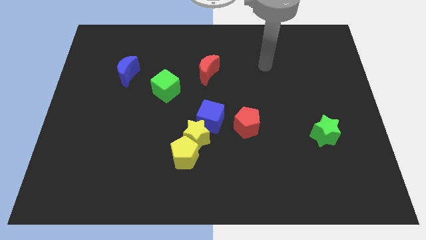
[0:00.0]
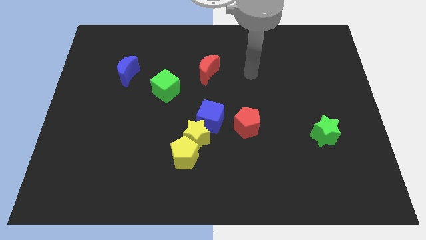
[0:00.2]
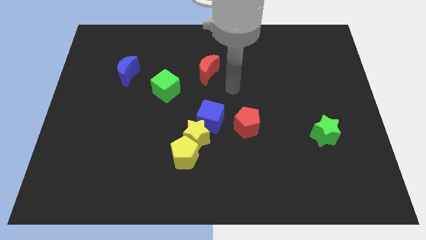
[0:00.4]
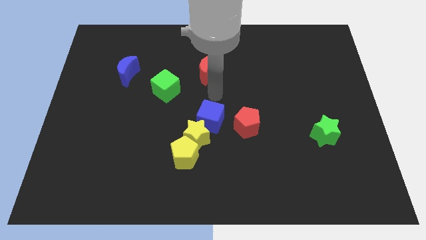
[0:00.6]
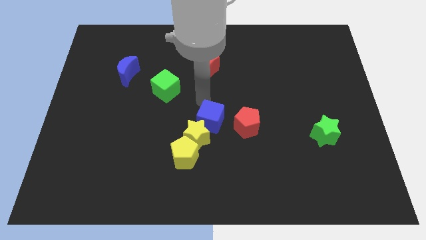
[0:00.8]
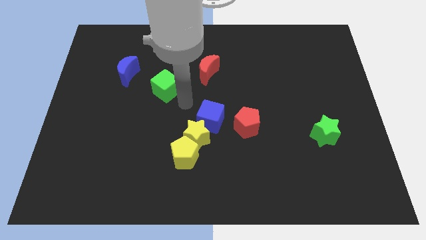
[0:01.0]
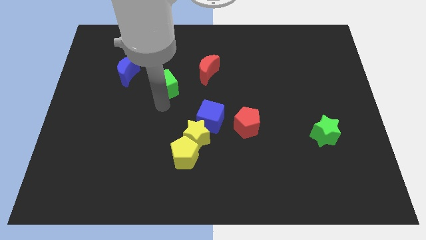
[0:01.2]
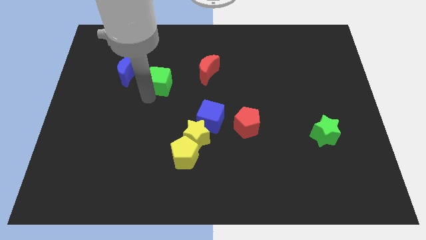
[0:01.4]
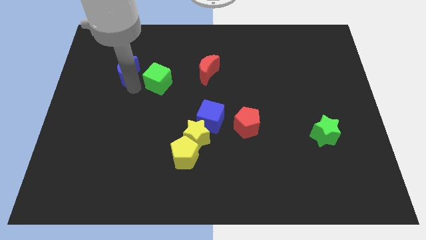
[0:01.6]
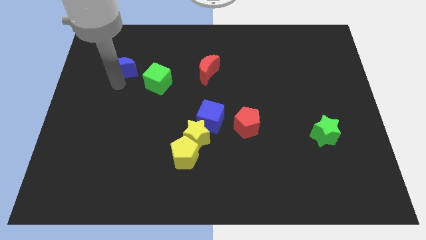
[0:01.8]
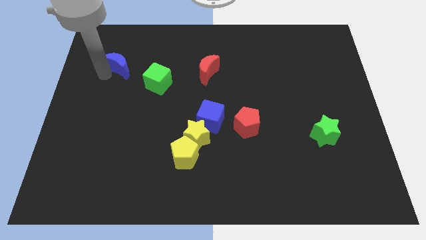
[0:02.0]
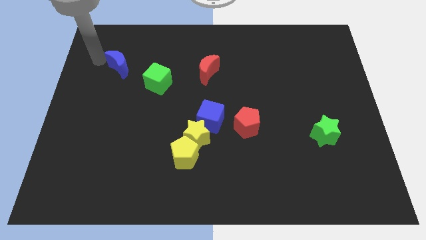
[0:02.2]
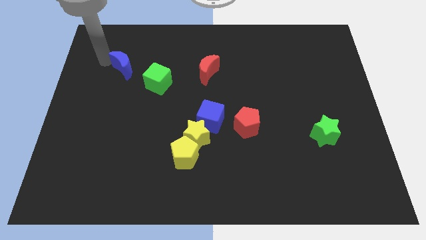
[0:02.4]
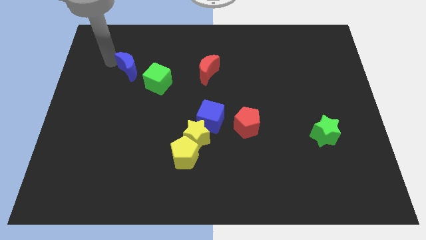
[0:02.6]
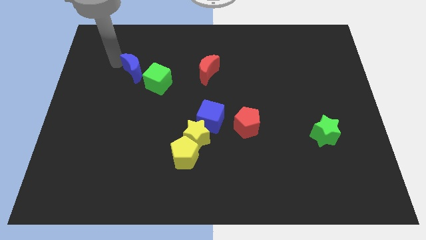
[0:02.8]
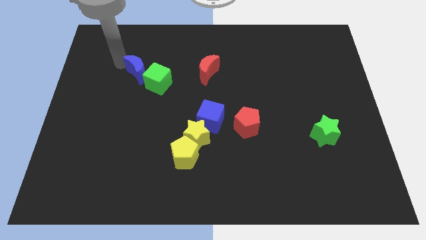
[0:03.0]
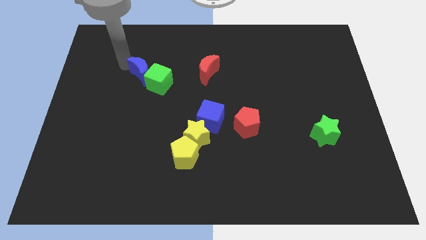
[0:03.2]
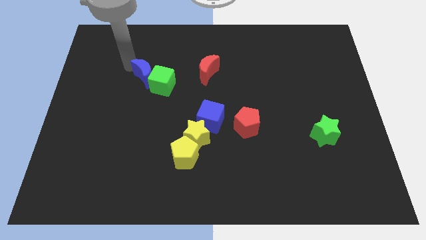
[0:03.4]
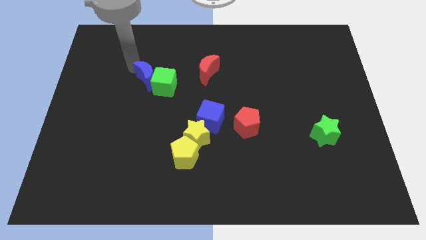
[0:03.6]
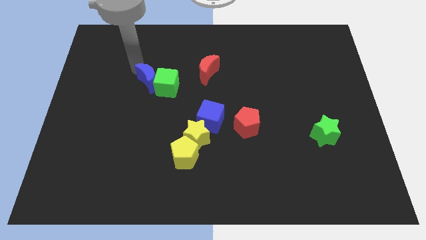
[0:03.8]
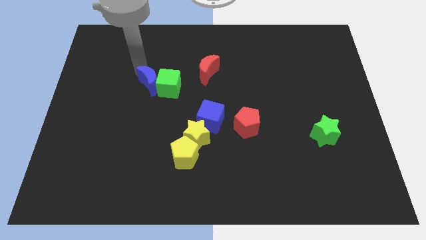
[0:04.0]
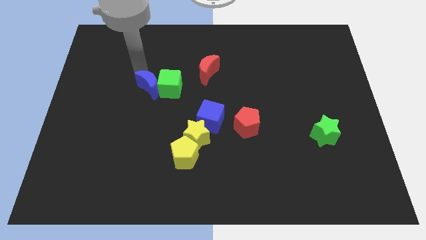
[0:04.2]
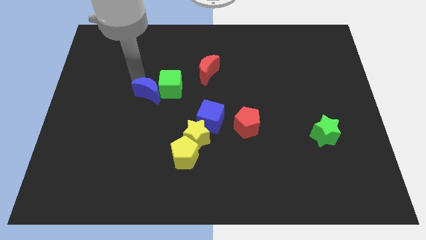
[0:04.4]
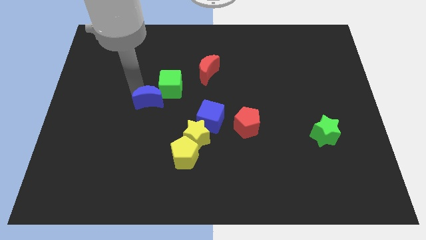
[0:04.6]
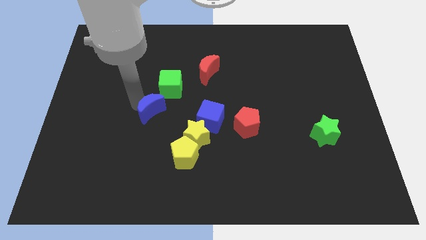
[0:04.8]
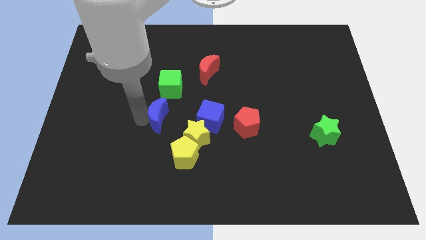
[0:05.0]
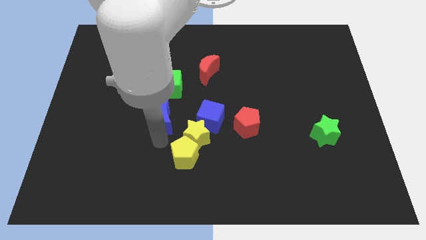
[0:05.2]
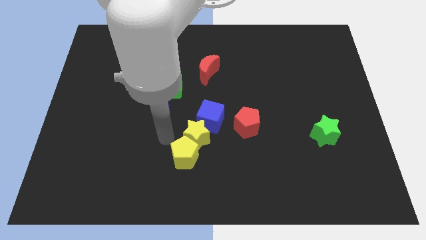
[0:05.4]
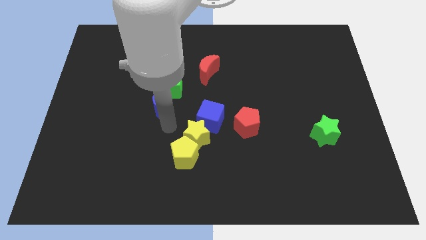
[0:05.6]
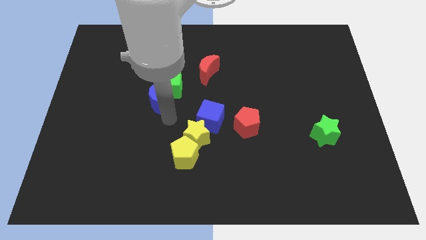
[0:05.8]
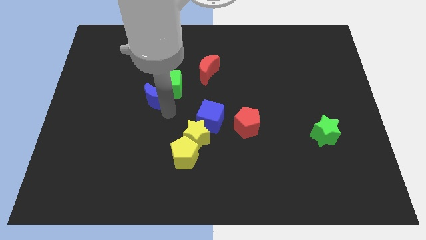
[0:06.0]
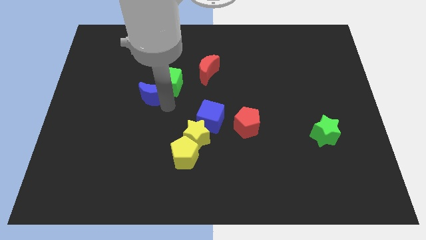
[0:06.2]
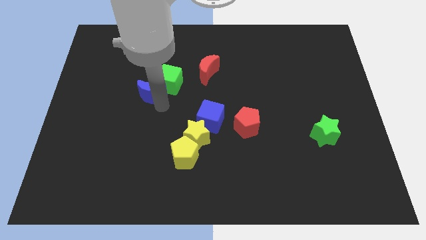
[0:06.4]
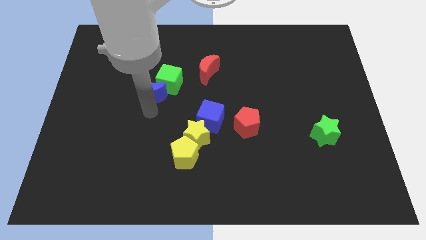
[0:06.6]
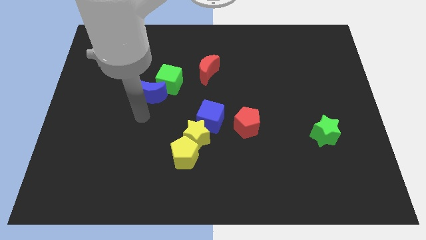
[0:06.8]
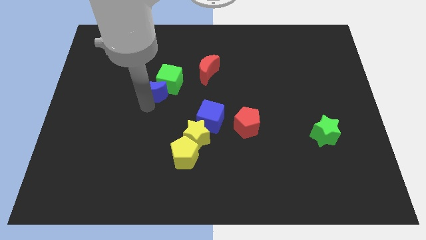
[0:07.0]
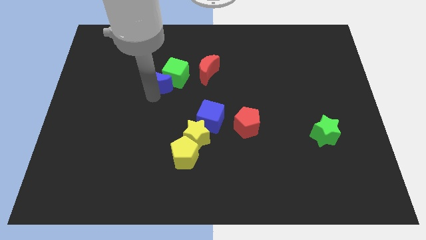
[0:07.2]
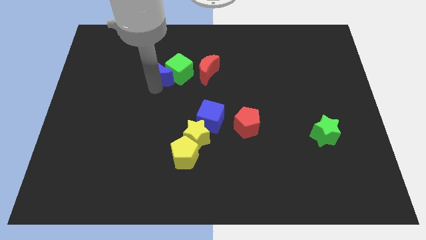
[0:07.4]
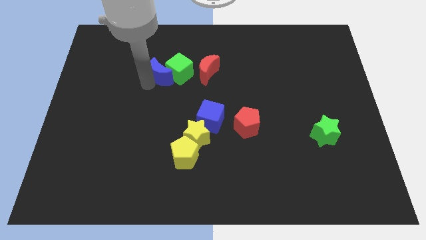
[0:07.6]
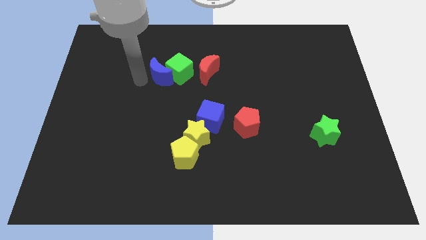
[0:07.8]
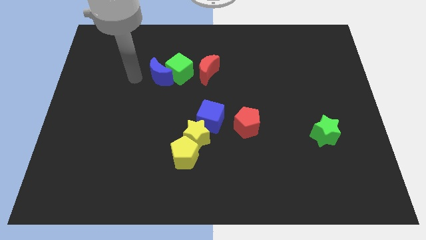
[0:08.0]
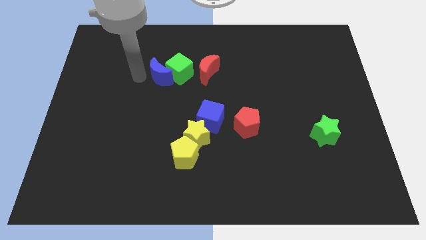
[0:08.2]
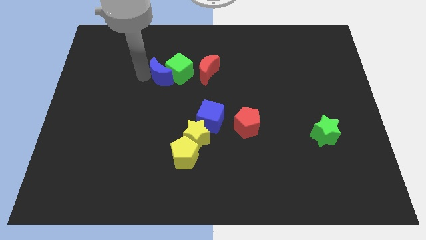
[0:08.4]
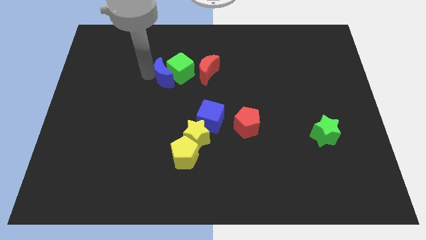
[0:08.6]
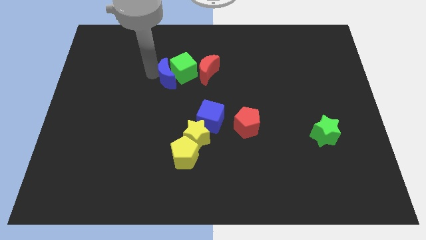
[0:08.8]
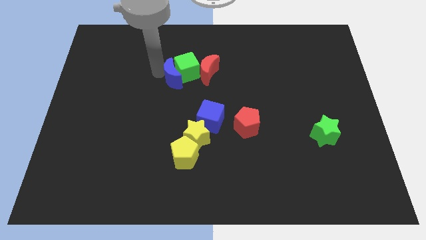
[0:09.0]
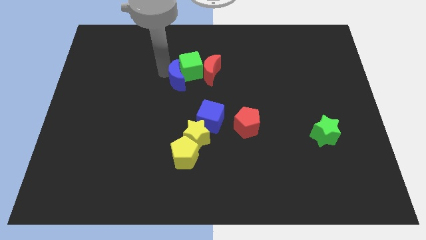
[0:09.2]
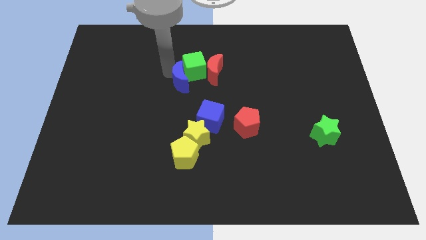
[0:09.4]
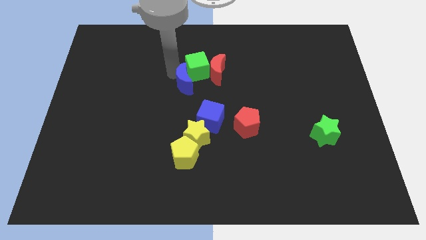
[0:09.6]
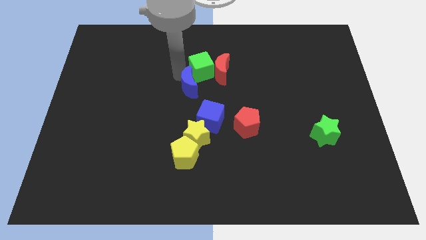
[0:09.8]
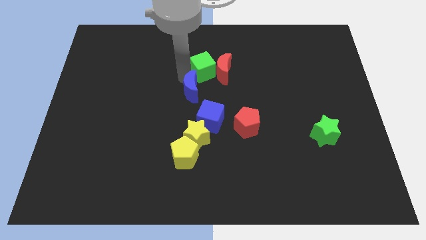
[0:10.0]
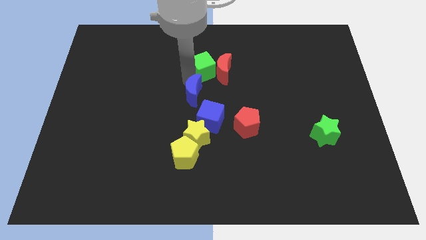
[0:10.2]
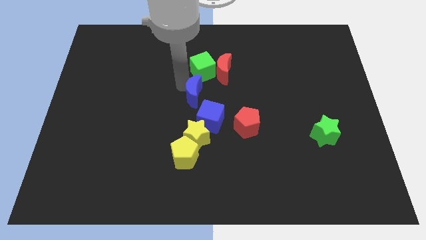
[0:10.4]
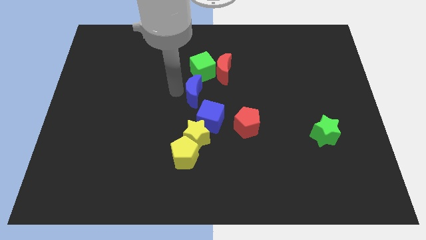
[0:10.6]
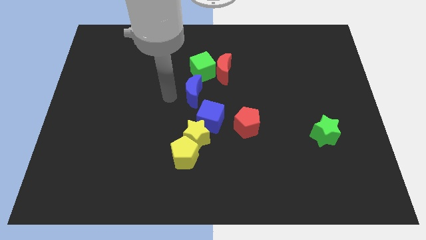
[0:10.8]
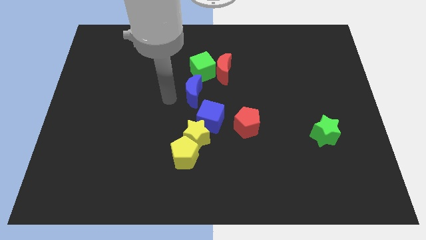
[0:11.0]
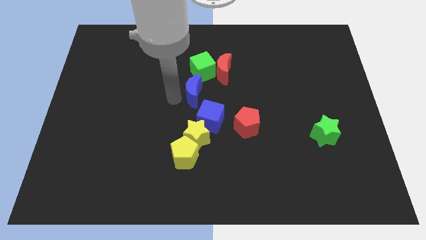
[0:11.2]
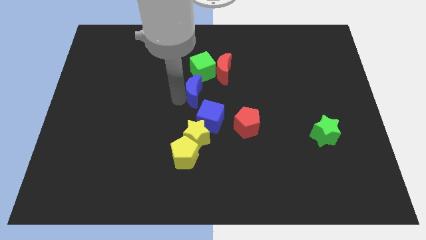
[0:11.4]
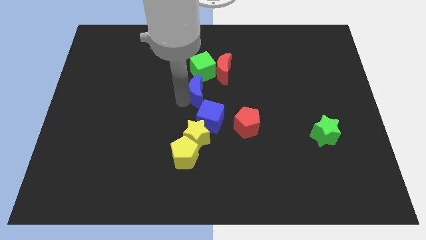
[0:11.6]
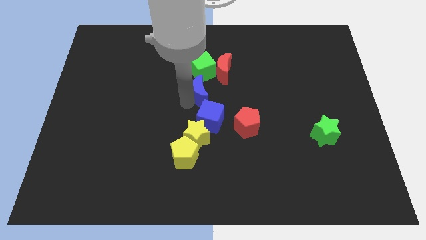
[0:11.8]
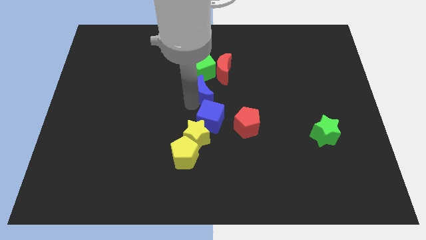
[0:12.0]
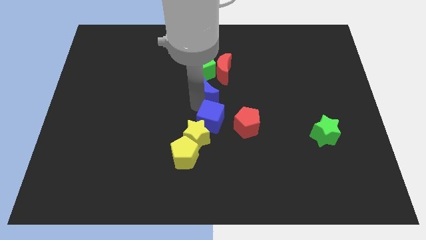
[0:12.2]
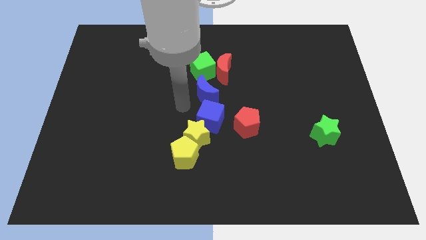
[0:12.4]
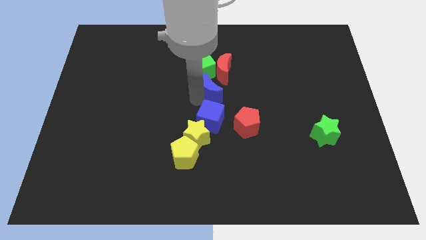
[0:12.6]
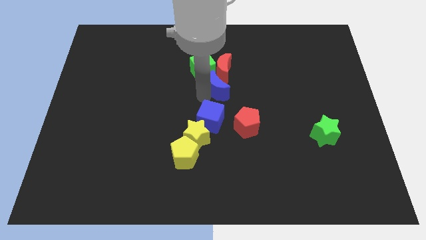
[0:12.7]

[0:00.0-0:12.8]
slide the blue moon to the right

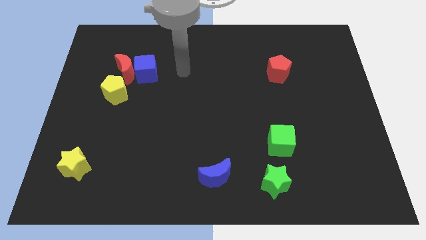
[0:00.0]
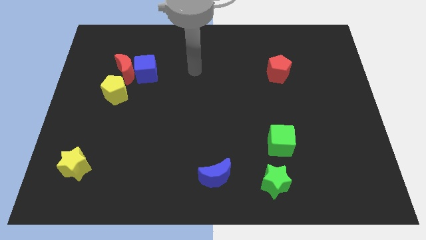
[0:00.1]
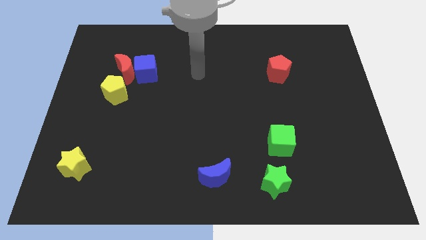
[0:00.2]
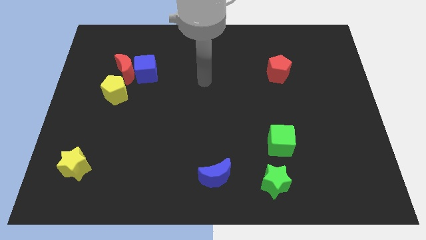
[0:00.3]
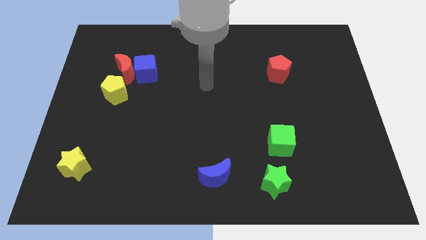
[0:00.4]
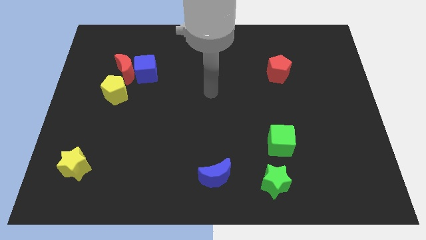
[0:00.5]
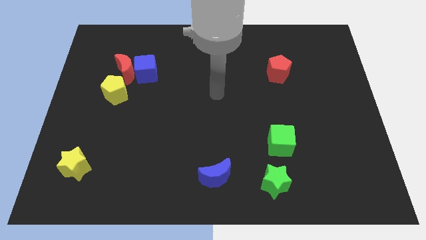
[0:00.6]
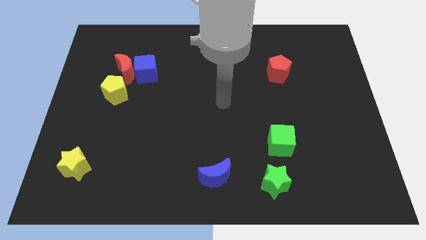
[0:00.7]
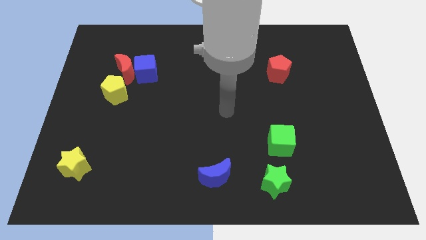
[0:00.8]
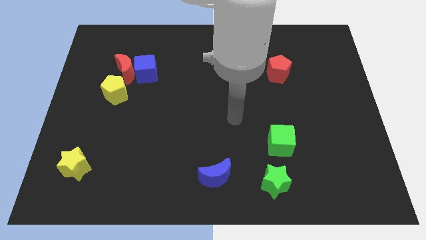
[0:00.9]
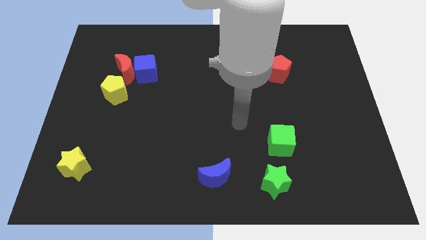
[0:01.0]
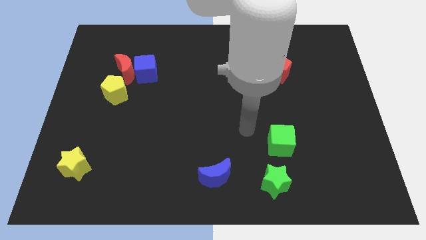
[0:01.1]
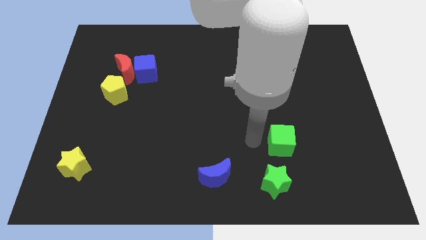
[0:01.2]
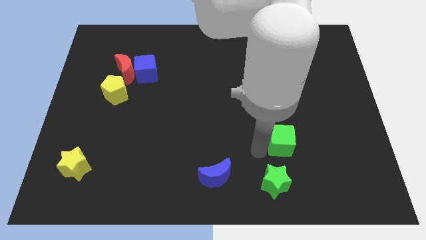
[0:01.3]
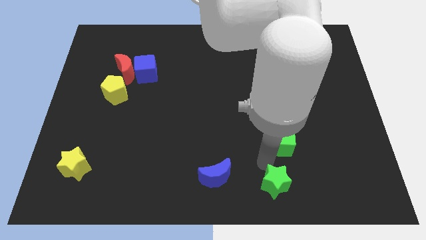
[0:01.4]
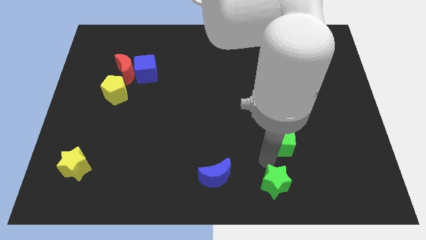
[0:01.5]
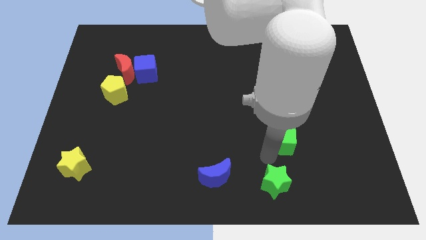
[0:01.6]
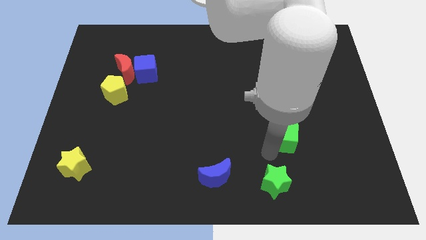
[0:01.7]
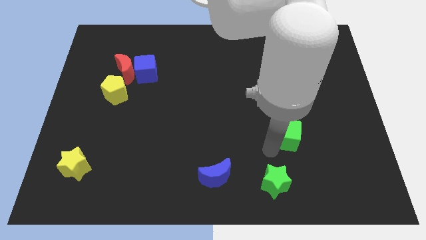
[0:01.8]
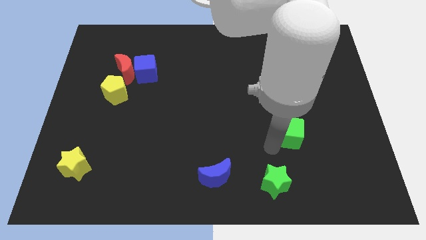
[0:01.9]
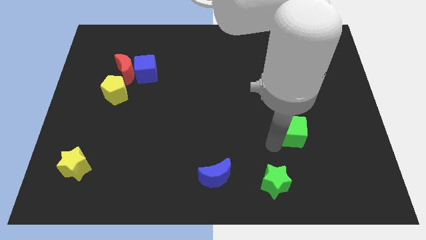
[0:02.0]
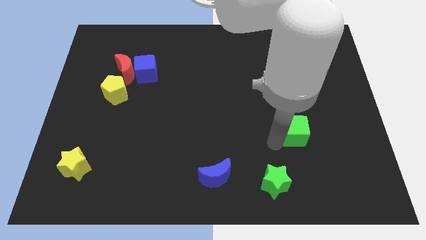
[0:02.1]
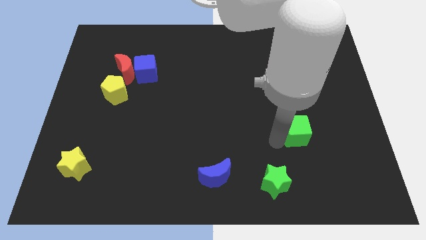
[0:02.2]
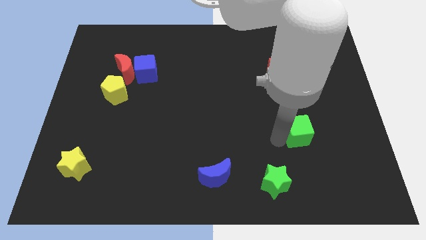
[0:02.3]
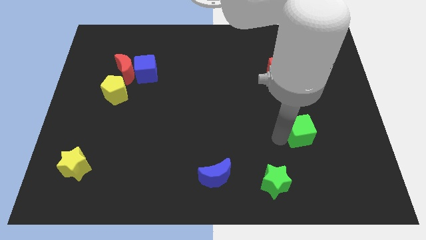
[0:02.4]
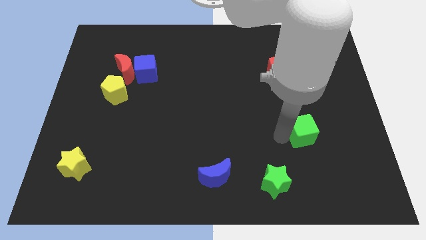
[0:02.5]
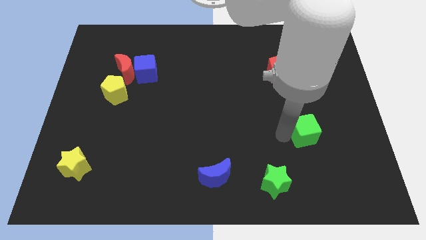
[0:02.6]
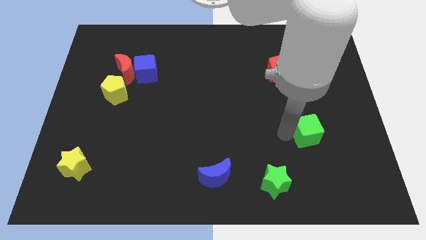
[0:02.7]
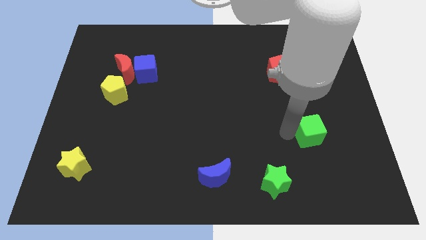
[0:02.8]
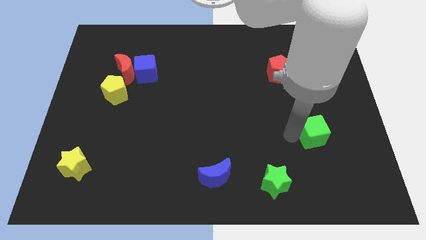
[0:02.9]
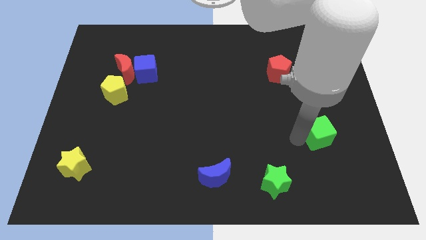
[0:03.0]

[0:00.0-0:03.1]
push the green cube a little bit up and to the right diagonally
